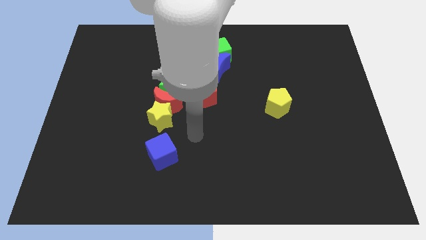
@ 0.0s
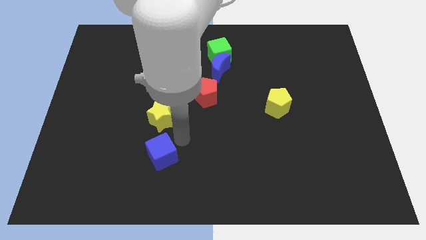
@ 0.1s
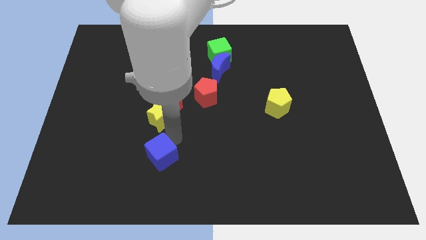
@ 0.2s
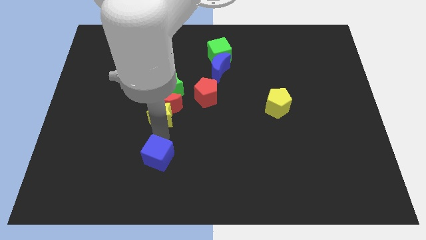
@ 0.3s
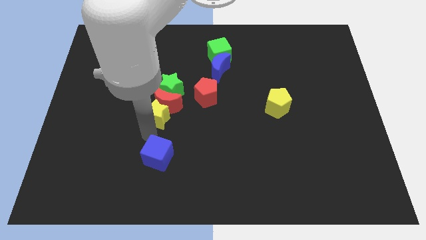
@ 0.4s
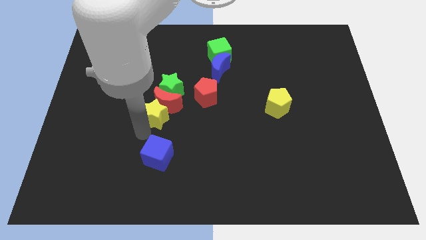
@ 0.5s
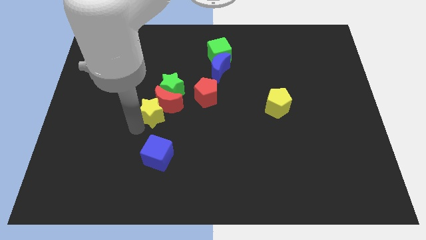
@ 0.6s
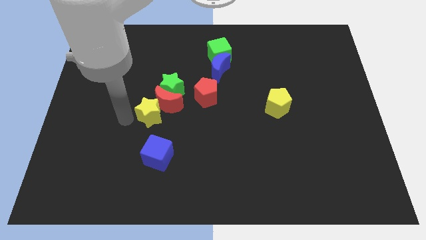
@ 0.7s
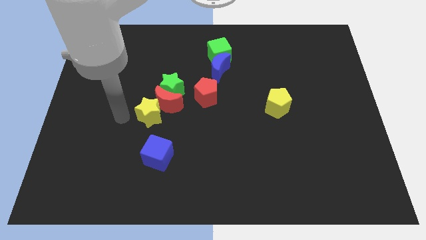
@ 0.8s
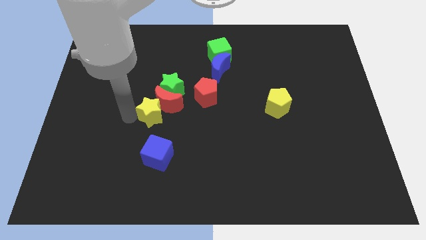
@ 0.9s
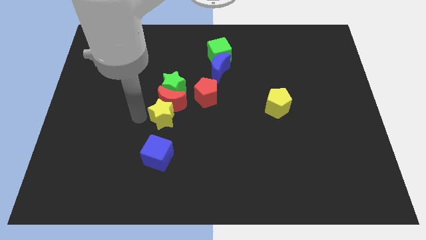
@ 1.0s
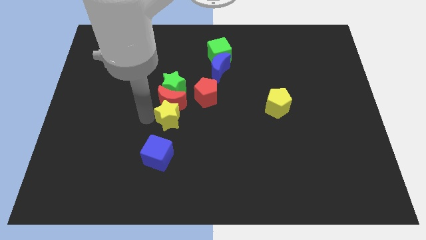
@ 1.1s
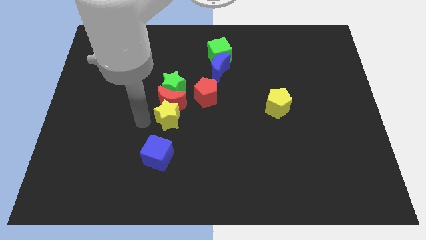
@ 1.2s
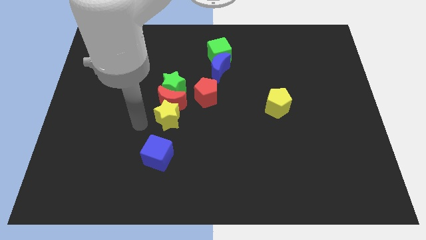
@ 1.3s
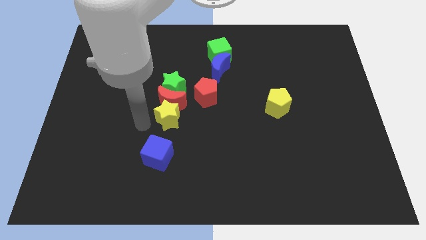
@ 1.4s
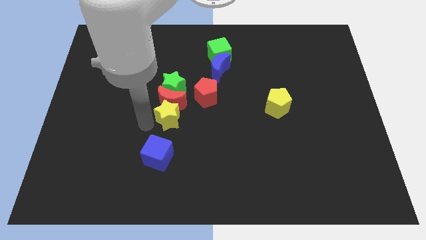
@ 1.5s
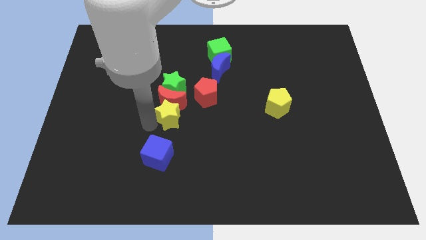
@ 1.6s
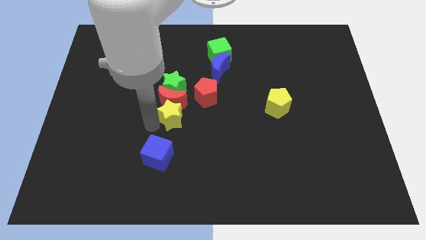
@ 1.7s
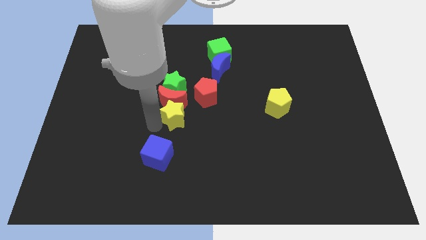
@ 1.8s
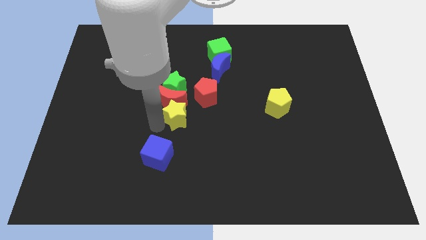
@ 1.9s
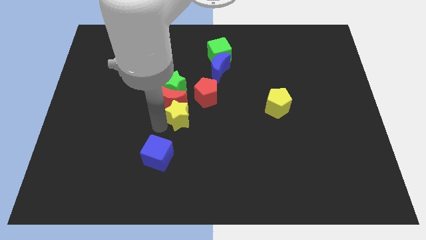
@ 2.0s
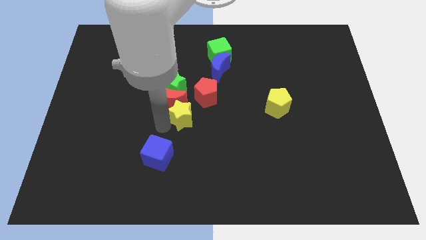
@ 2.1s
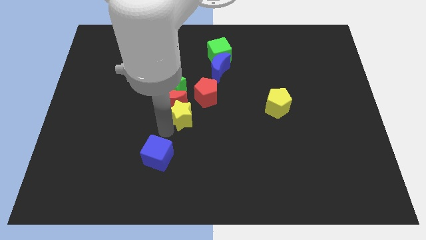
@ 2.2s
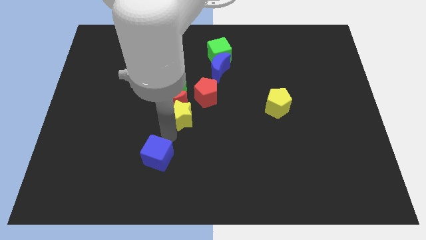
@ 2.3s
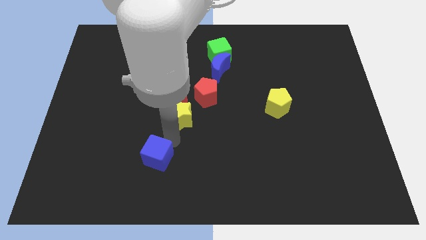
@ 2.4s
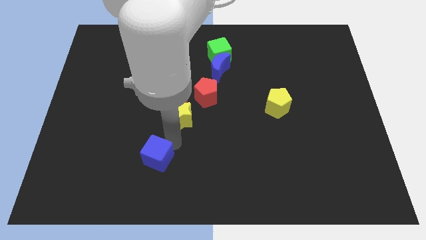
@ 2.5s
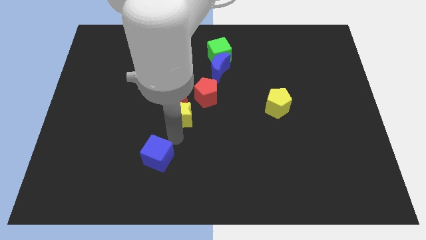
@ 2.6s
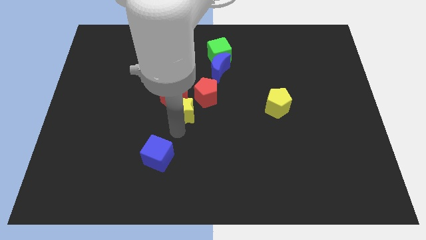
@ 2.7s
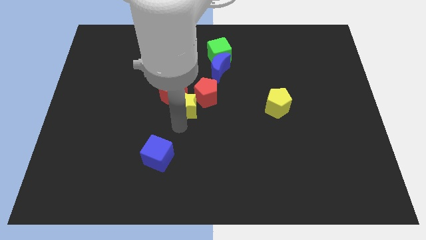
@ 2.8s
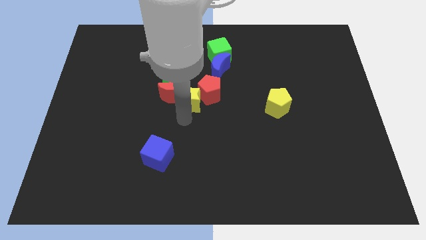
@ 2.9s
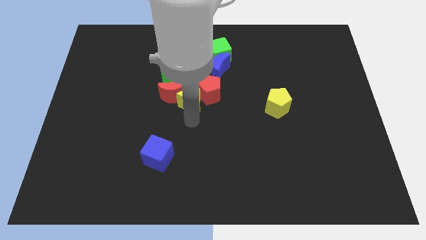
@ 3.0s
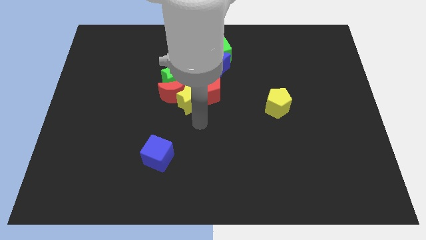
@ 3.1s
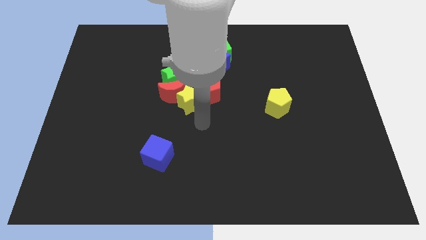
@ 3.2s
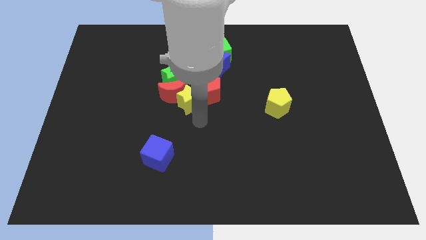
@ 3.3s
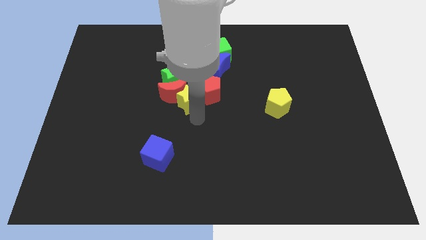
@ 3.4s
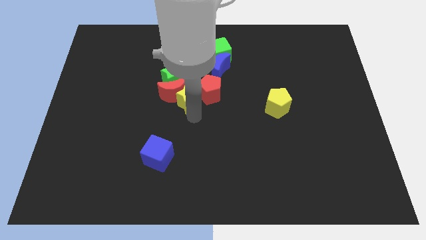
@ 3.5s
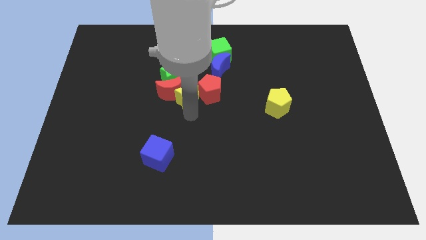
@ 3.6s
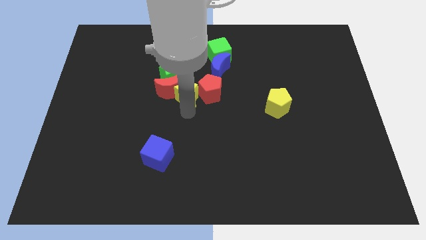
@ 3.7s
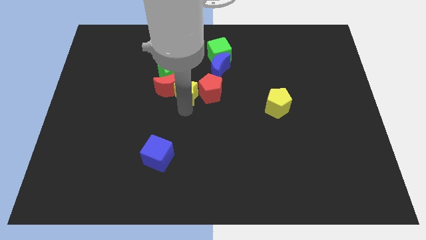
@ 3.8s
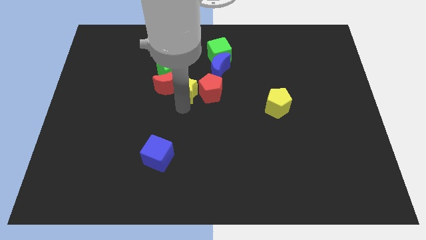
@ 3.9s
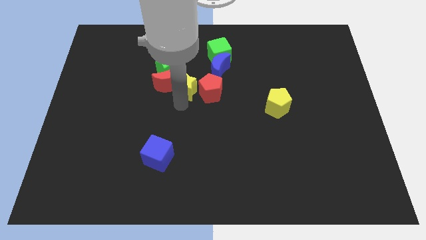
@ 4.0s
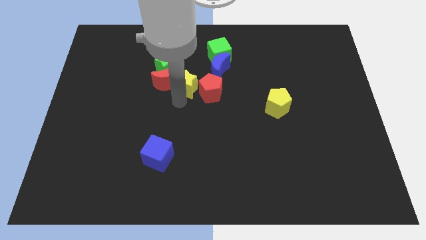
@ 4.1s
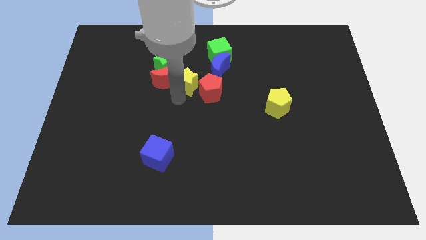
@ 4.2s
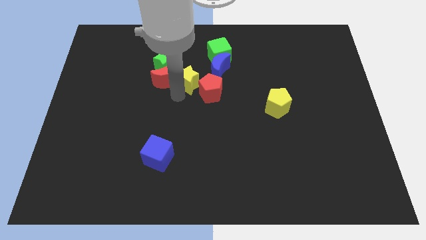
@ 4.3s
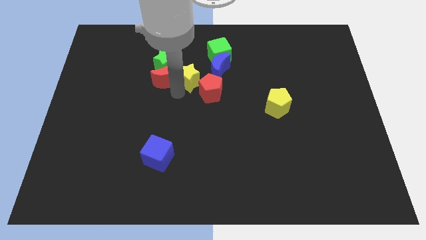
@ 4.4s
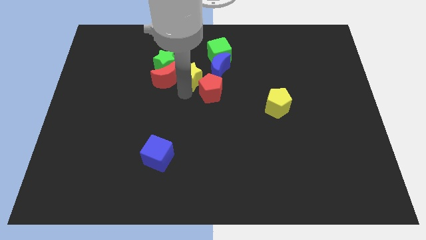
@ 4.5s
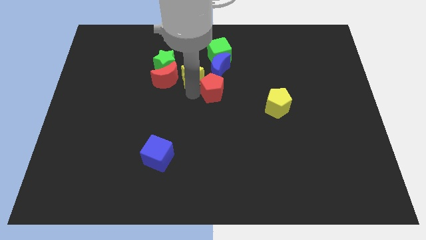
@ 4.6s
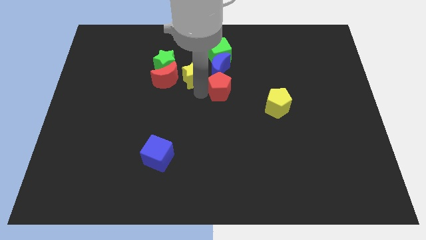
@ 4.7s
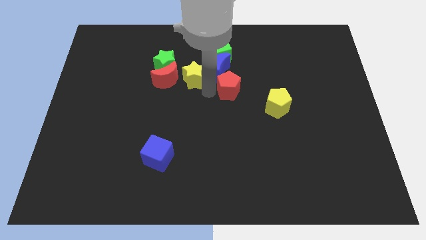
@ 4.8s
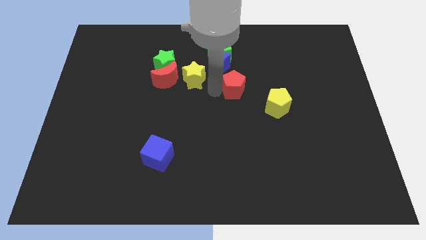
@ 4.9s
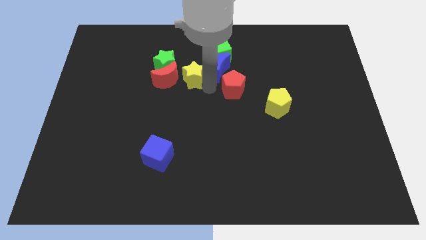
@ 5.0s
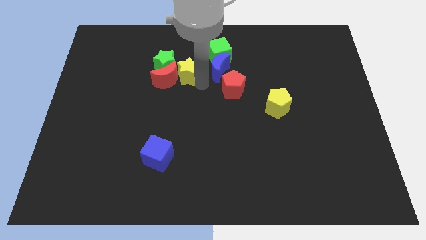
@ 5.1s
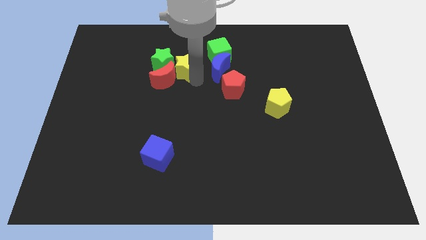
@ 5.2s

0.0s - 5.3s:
put the yellow star towards the green star

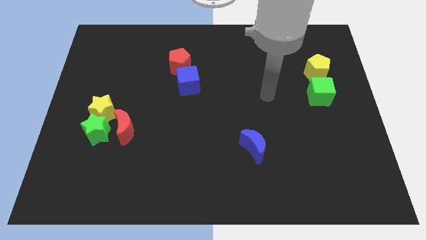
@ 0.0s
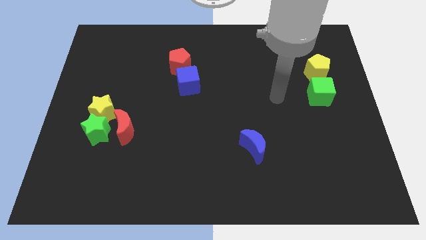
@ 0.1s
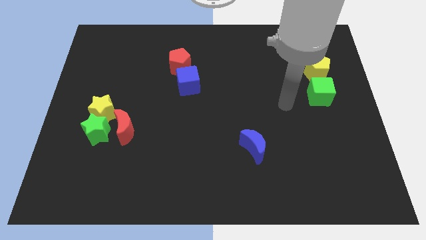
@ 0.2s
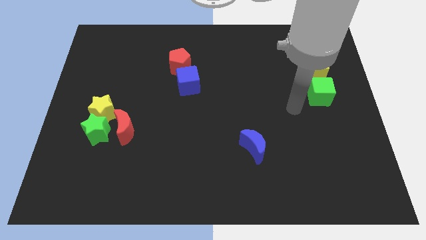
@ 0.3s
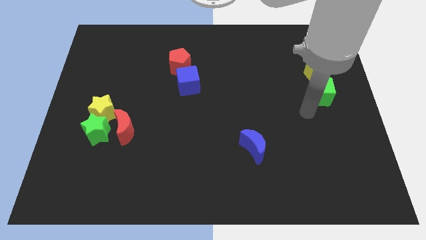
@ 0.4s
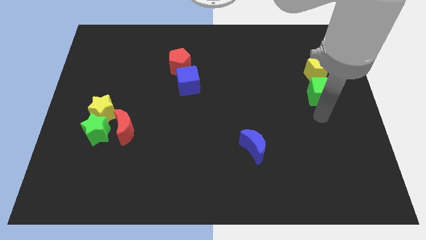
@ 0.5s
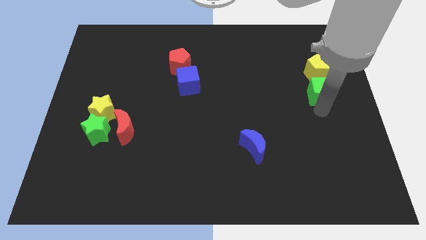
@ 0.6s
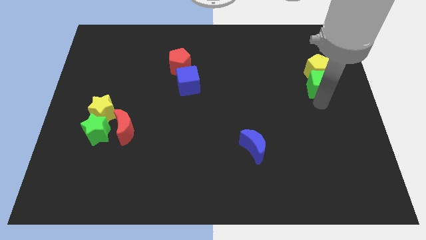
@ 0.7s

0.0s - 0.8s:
put the green cube to the yellow pentagon
